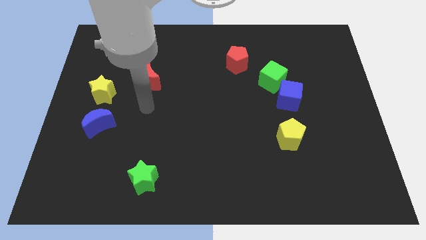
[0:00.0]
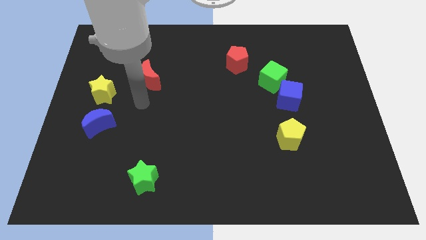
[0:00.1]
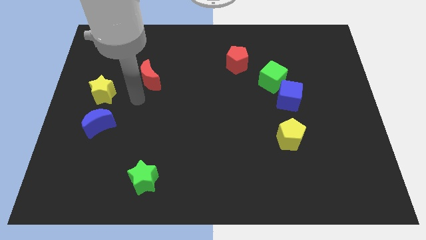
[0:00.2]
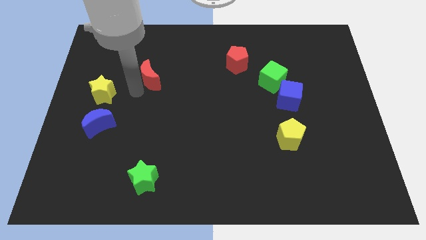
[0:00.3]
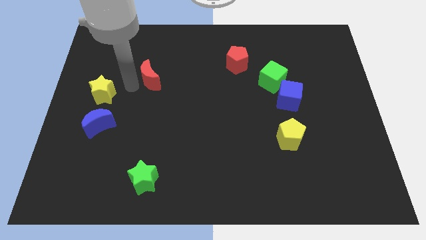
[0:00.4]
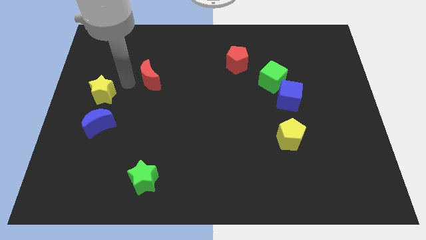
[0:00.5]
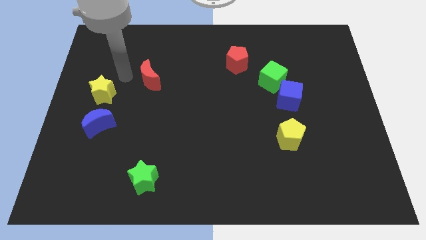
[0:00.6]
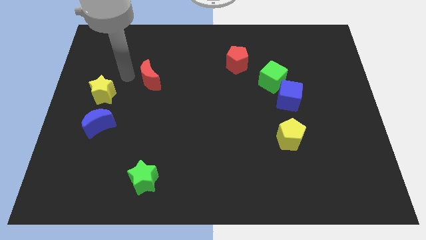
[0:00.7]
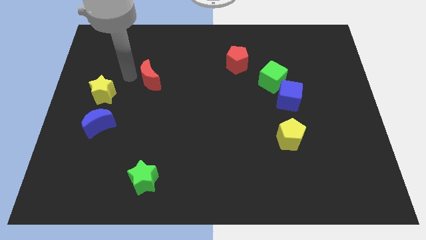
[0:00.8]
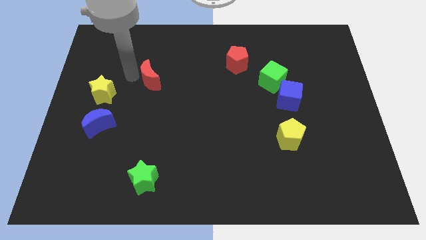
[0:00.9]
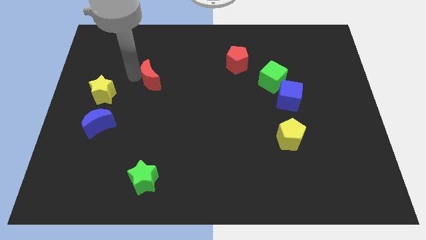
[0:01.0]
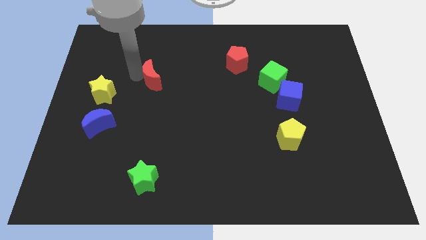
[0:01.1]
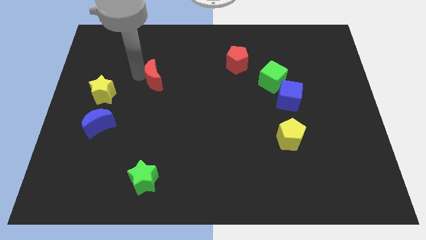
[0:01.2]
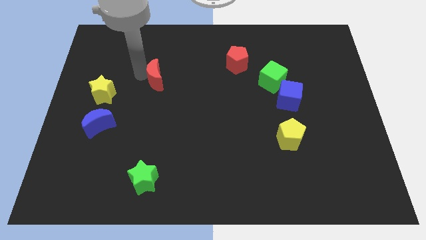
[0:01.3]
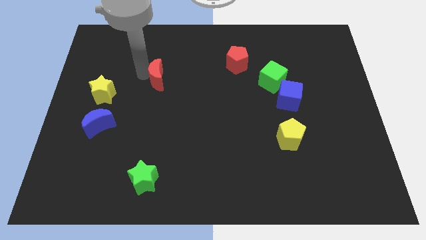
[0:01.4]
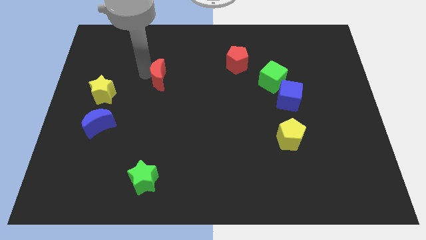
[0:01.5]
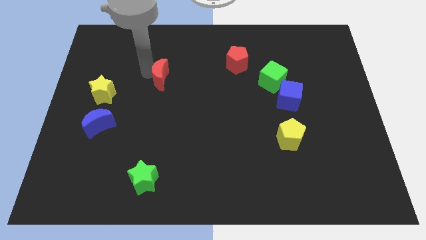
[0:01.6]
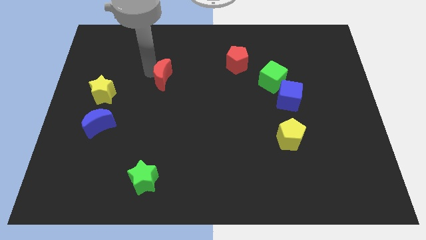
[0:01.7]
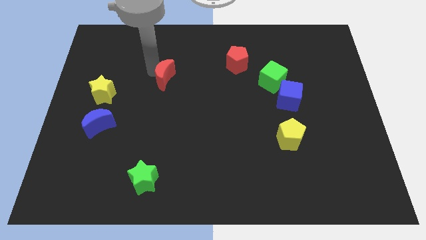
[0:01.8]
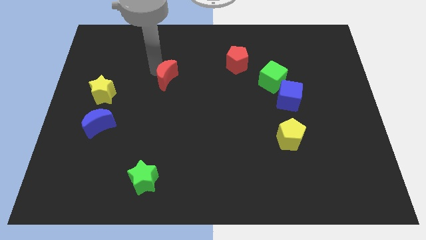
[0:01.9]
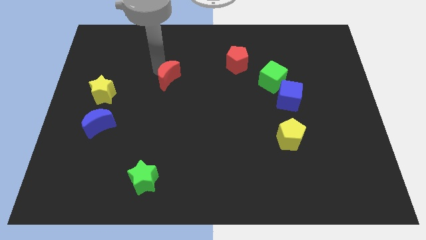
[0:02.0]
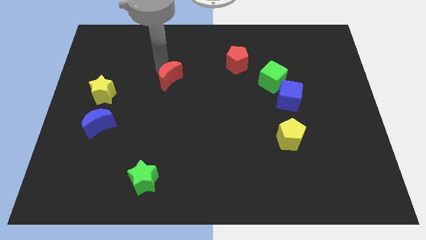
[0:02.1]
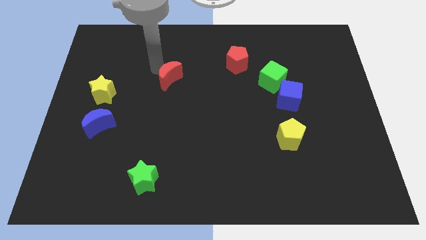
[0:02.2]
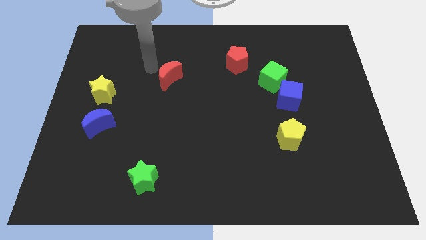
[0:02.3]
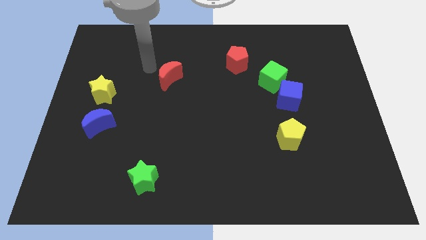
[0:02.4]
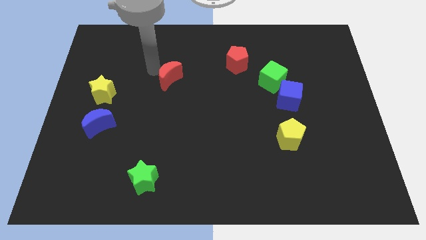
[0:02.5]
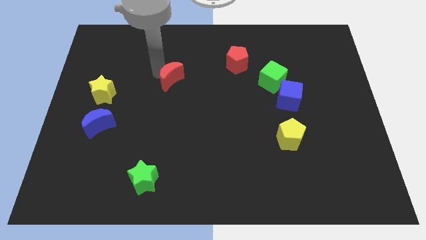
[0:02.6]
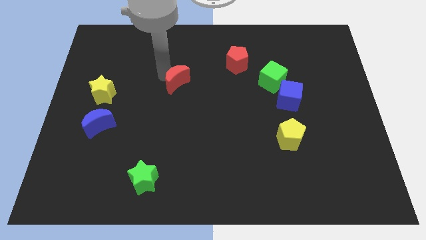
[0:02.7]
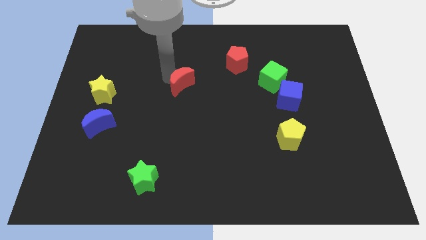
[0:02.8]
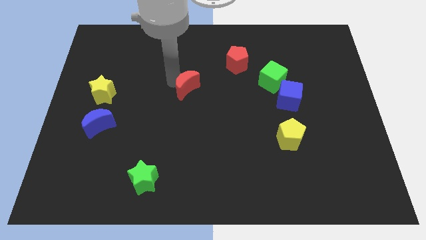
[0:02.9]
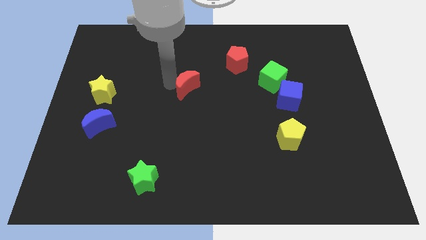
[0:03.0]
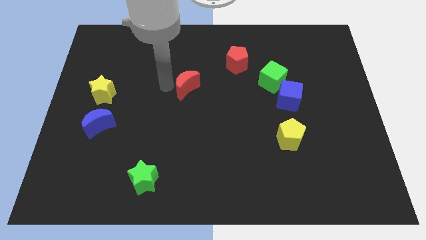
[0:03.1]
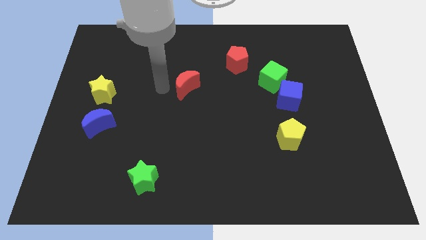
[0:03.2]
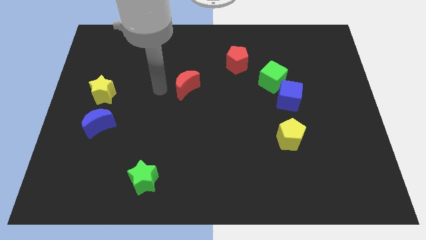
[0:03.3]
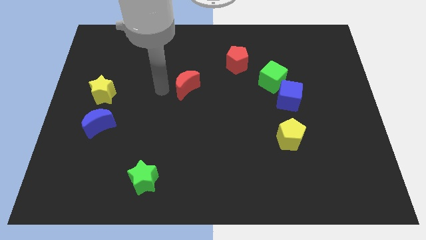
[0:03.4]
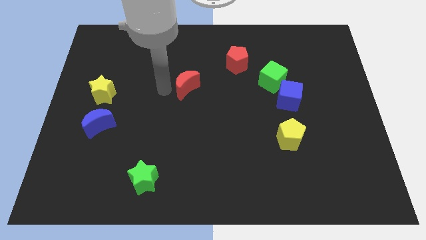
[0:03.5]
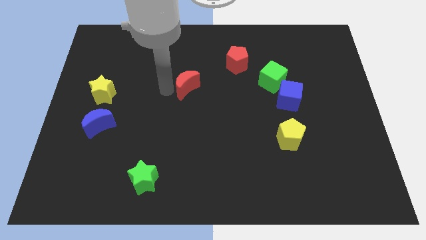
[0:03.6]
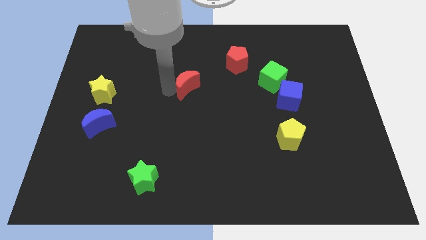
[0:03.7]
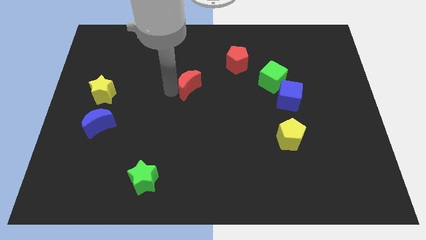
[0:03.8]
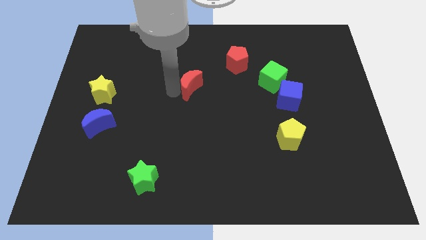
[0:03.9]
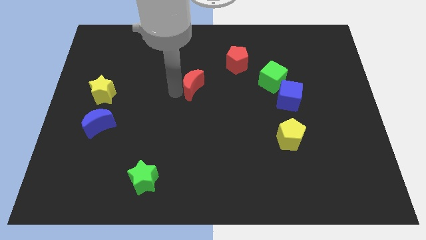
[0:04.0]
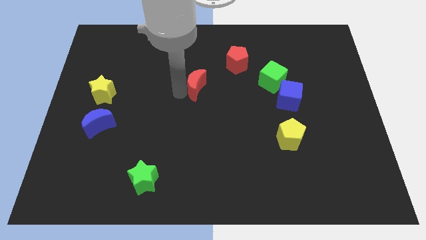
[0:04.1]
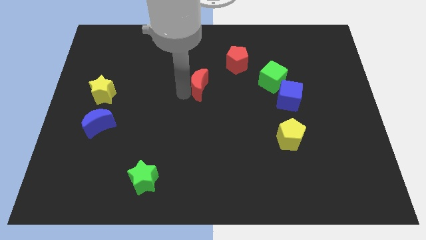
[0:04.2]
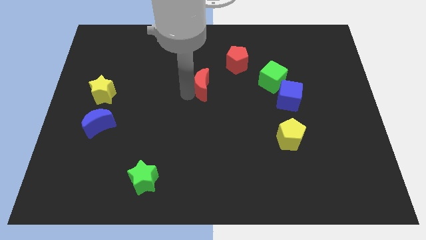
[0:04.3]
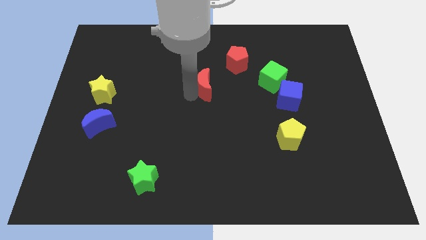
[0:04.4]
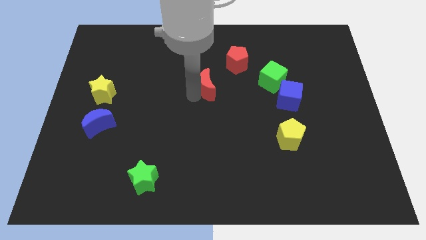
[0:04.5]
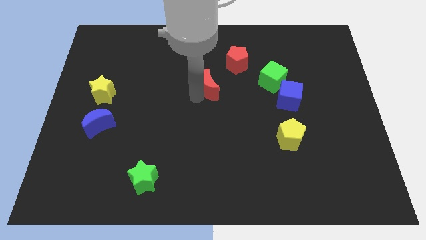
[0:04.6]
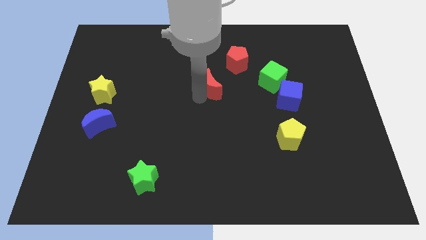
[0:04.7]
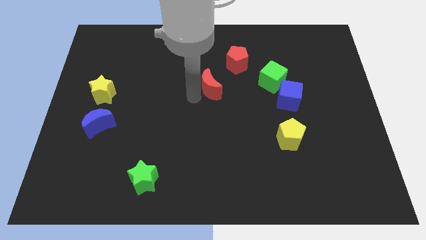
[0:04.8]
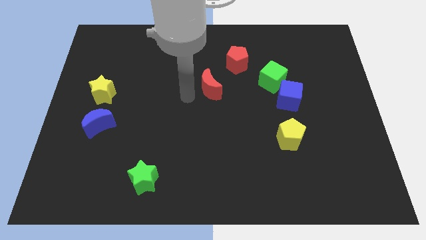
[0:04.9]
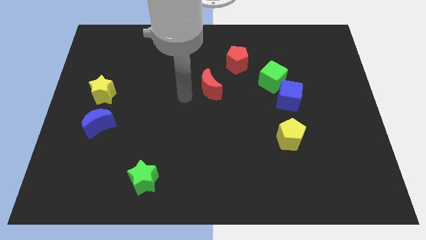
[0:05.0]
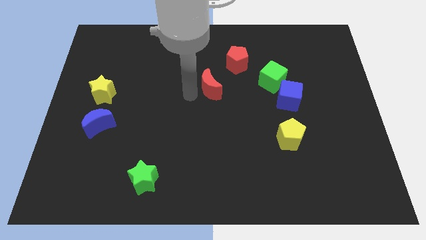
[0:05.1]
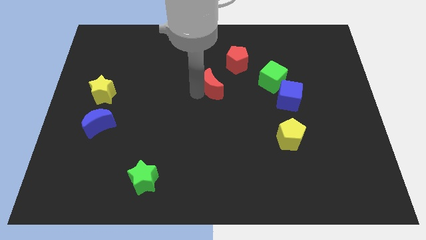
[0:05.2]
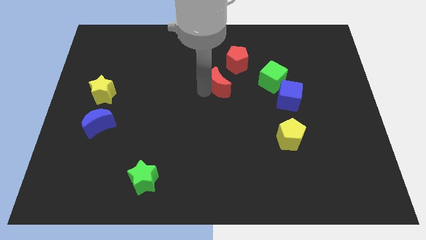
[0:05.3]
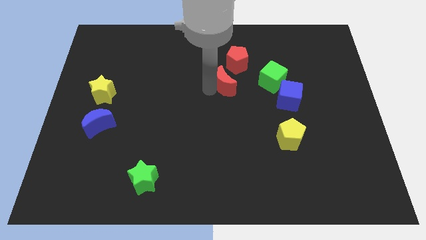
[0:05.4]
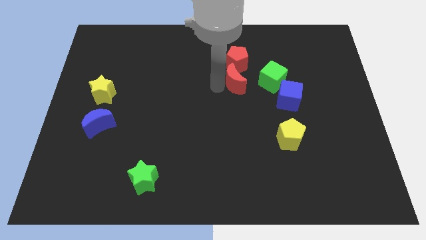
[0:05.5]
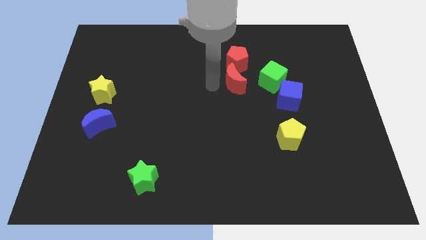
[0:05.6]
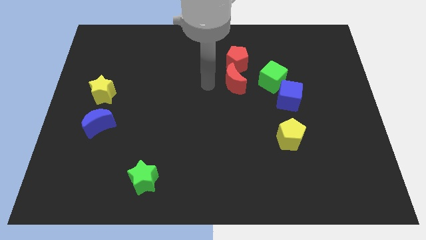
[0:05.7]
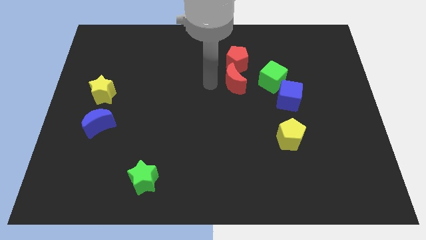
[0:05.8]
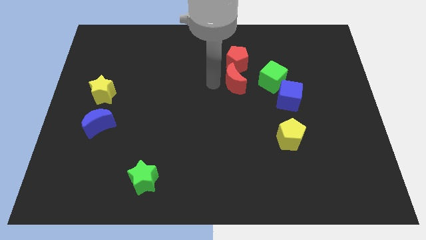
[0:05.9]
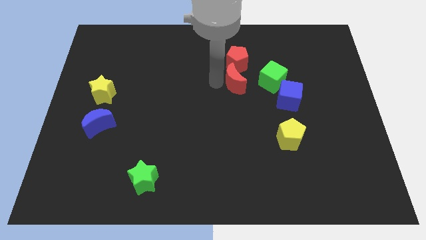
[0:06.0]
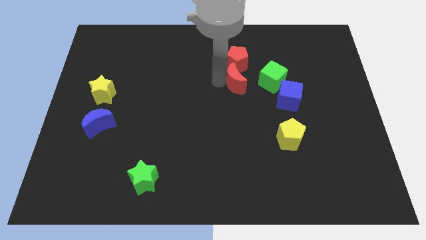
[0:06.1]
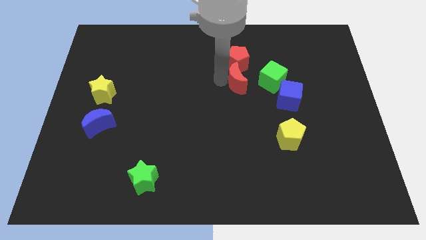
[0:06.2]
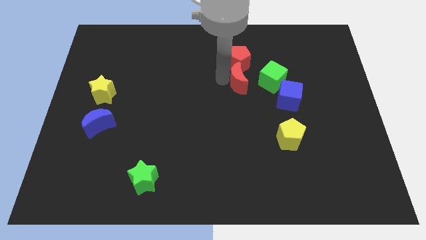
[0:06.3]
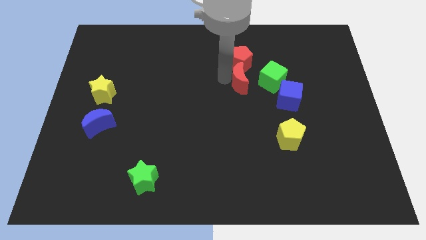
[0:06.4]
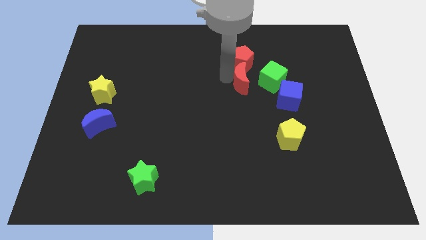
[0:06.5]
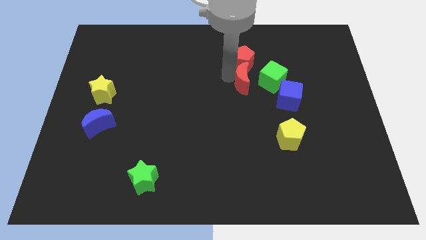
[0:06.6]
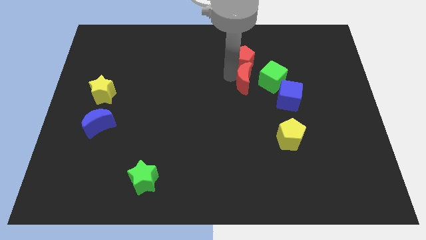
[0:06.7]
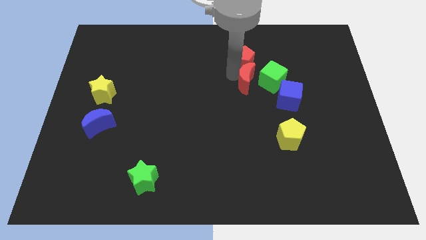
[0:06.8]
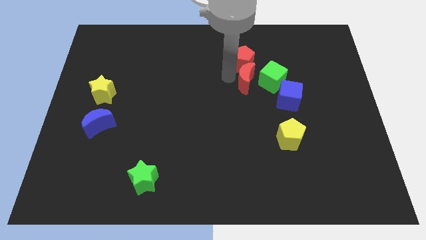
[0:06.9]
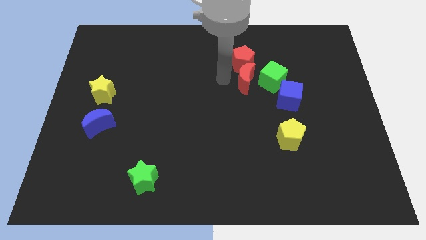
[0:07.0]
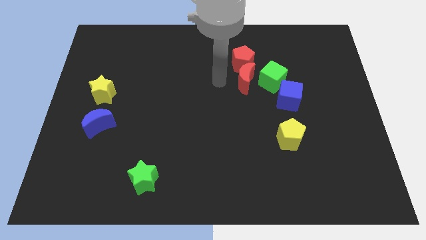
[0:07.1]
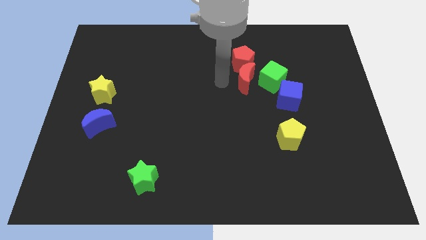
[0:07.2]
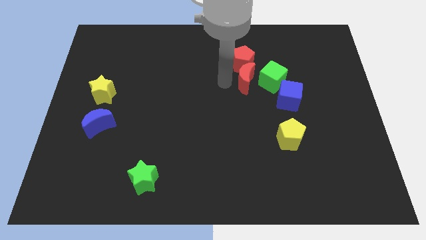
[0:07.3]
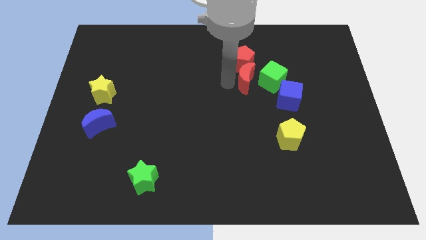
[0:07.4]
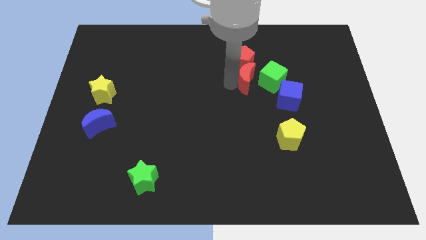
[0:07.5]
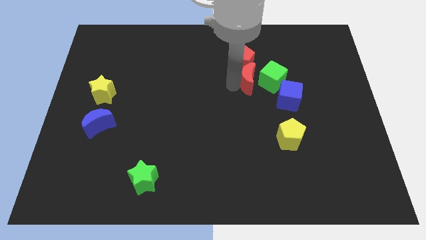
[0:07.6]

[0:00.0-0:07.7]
slide the red moon towards the green cube
